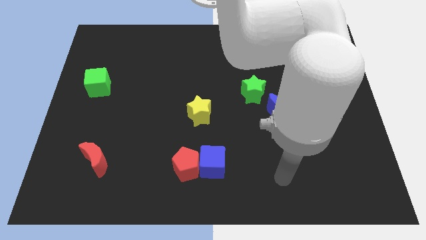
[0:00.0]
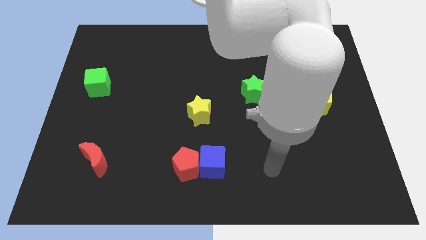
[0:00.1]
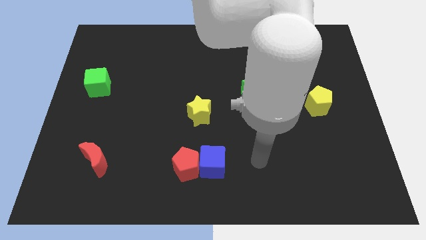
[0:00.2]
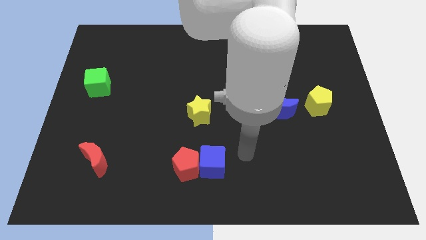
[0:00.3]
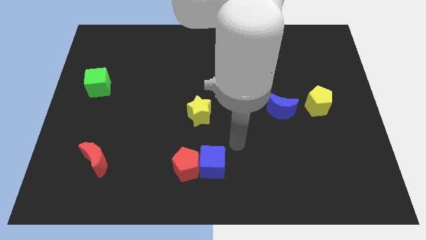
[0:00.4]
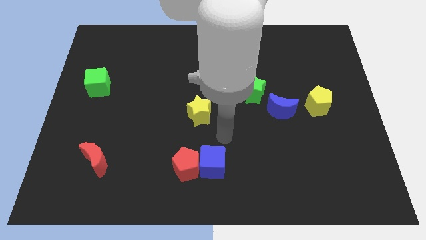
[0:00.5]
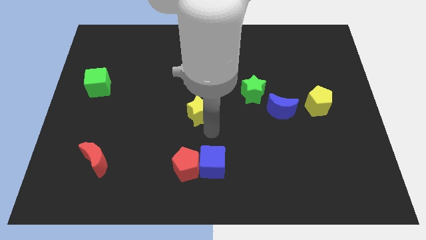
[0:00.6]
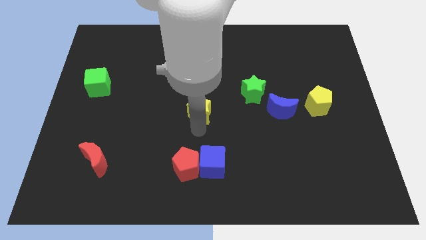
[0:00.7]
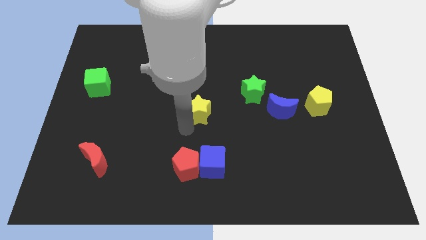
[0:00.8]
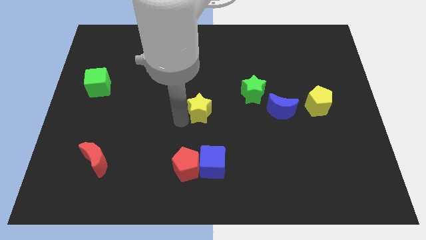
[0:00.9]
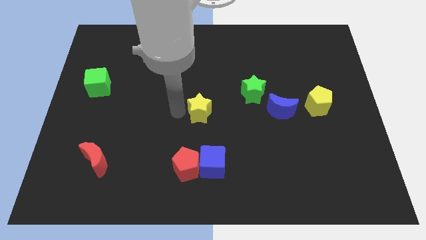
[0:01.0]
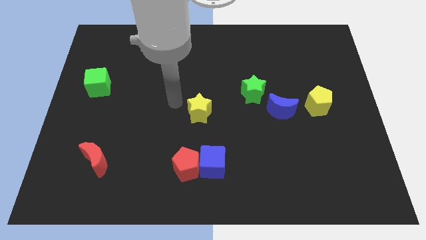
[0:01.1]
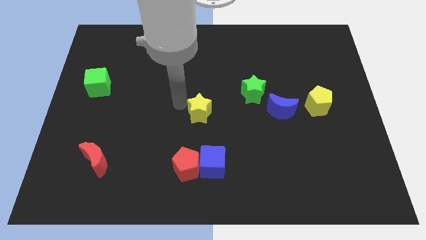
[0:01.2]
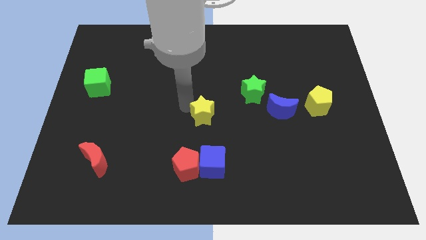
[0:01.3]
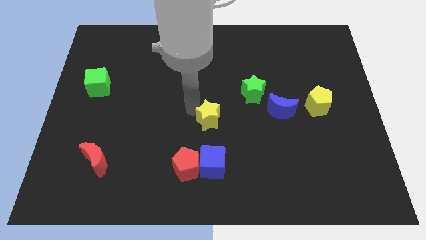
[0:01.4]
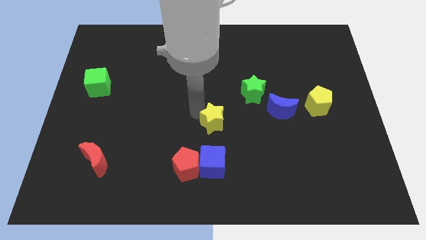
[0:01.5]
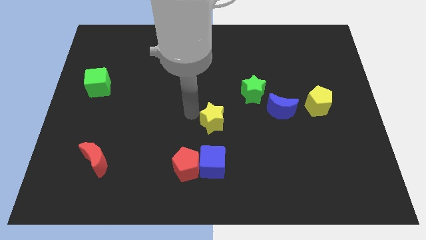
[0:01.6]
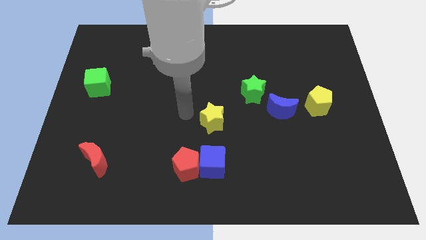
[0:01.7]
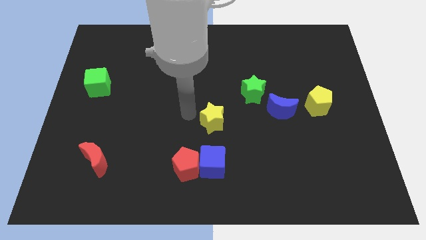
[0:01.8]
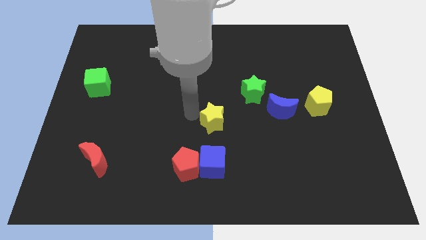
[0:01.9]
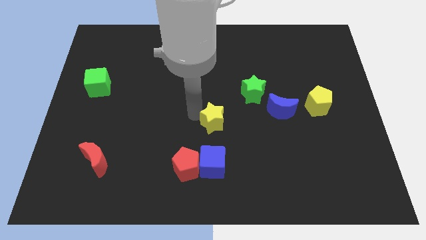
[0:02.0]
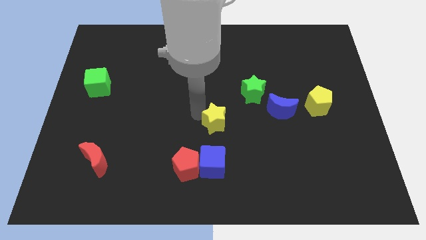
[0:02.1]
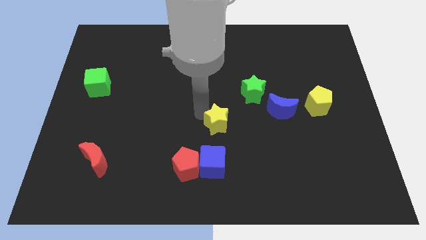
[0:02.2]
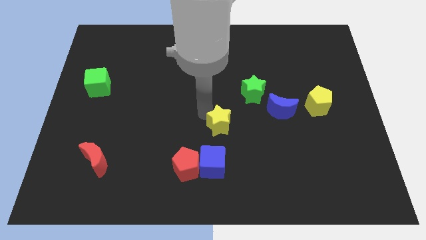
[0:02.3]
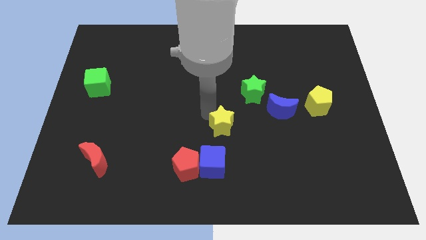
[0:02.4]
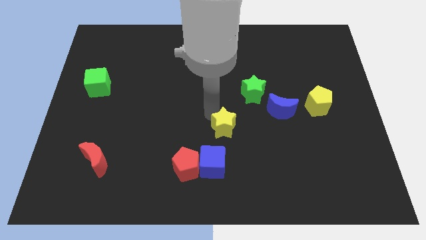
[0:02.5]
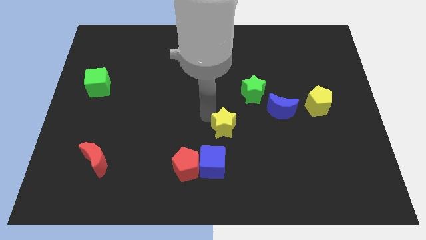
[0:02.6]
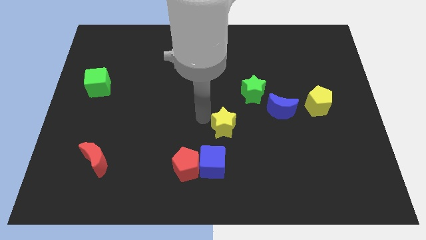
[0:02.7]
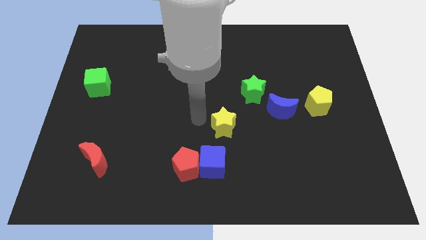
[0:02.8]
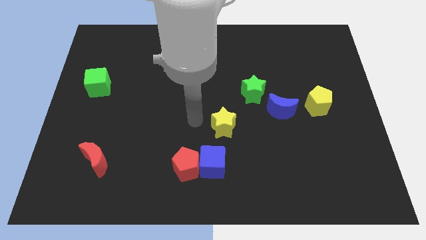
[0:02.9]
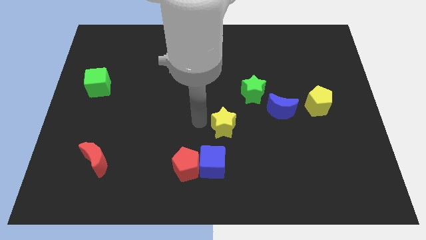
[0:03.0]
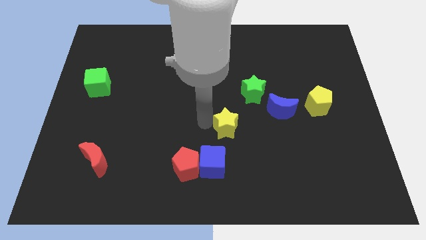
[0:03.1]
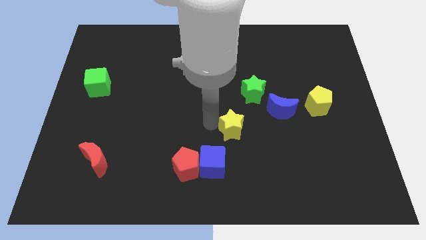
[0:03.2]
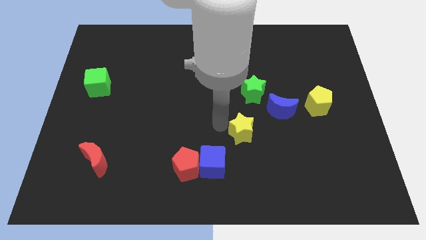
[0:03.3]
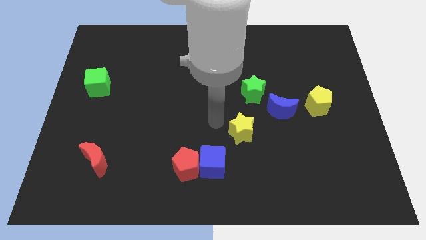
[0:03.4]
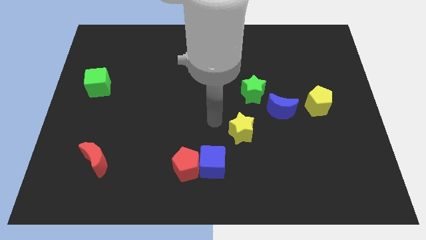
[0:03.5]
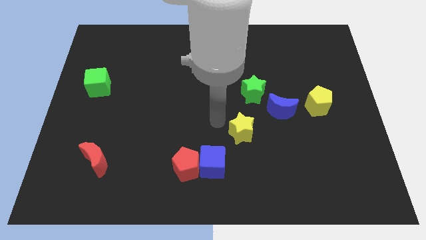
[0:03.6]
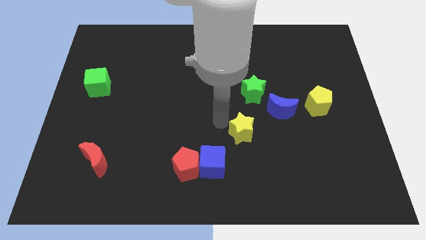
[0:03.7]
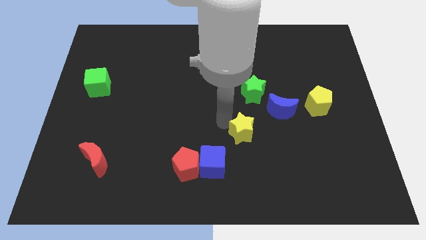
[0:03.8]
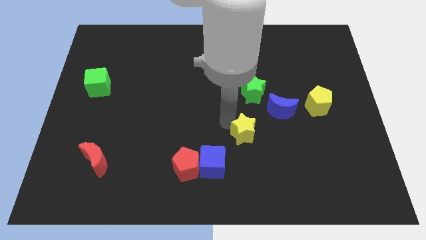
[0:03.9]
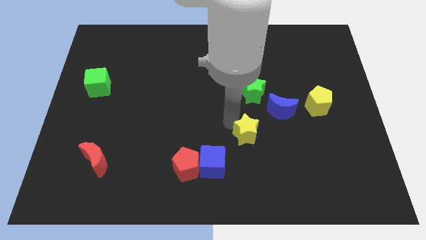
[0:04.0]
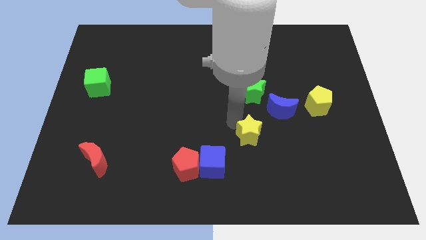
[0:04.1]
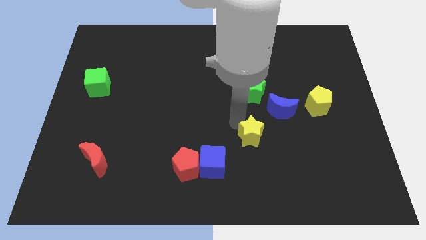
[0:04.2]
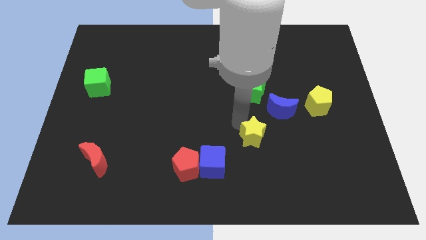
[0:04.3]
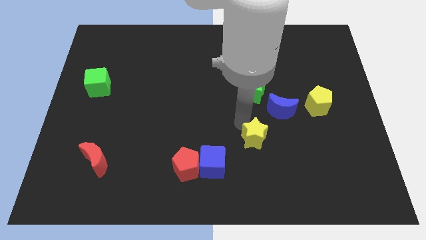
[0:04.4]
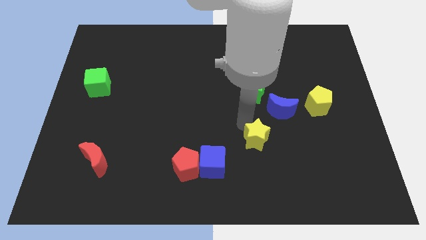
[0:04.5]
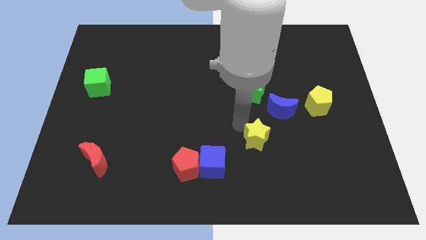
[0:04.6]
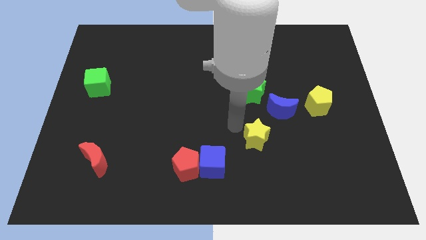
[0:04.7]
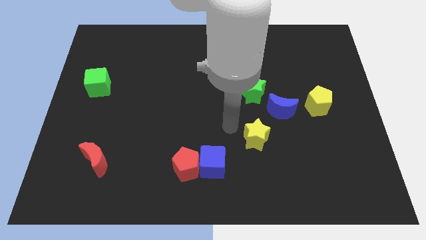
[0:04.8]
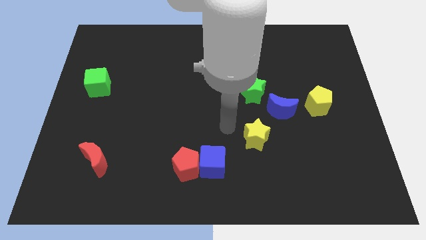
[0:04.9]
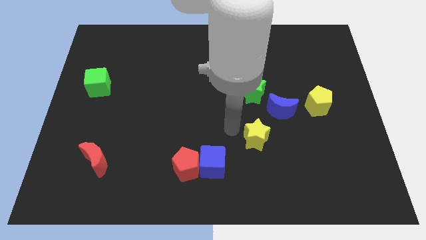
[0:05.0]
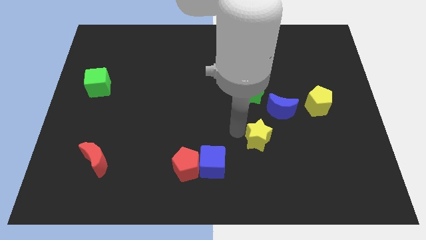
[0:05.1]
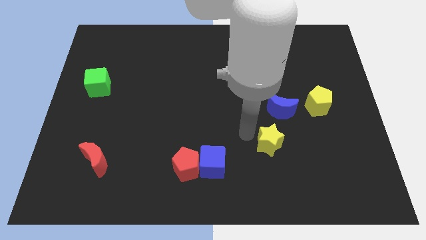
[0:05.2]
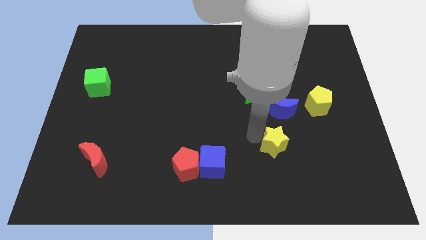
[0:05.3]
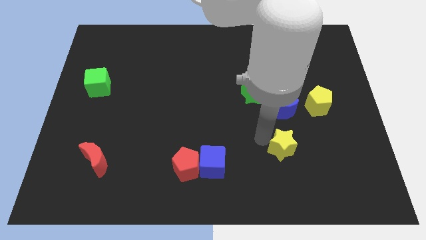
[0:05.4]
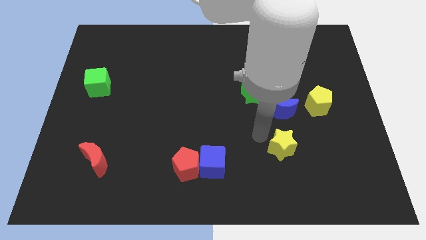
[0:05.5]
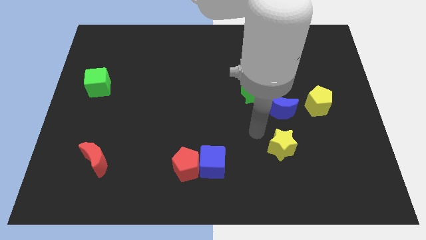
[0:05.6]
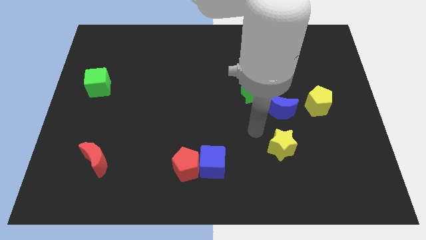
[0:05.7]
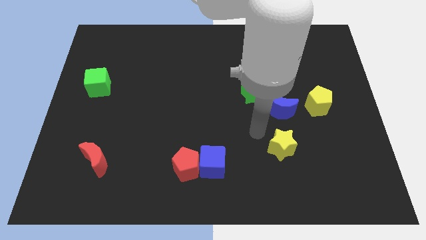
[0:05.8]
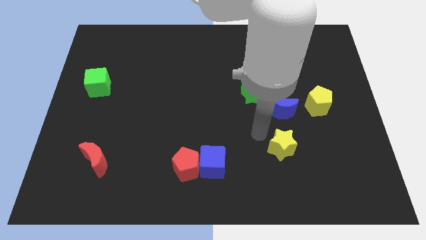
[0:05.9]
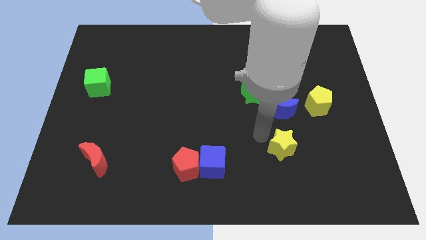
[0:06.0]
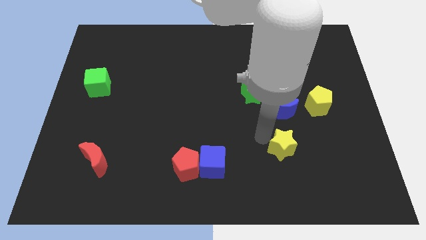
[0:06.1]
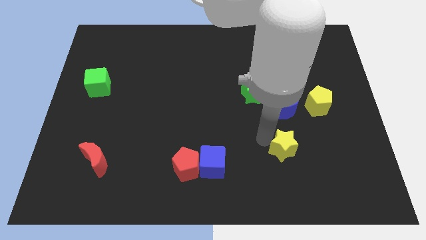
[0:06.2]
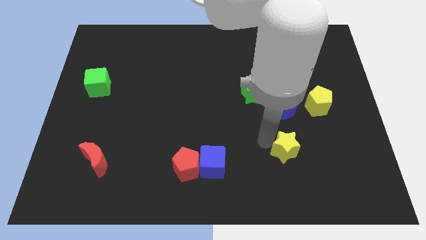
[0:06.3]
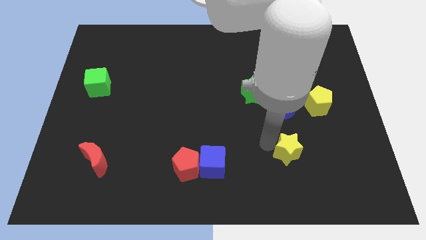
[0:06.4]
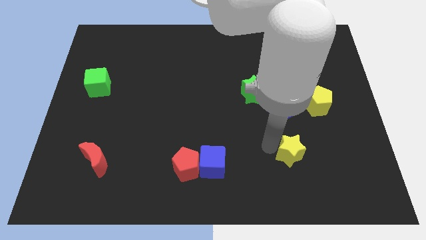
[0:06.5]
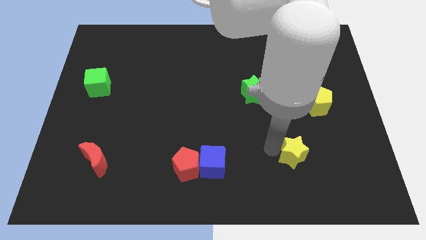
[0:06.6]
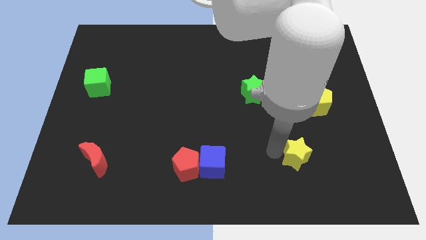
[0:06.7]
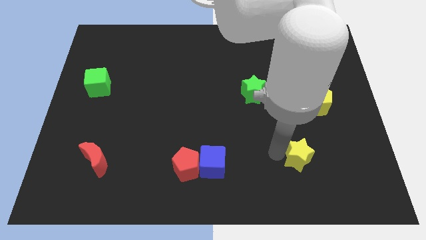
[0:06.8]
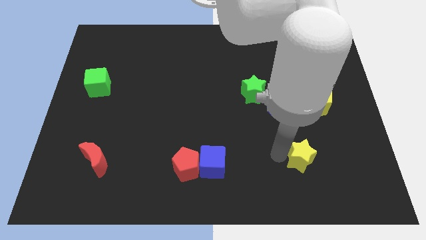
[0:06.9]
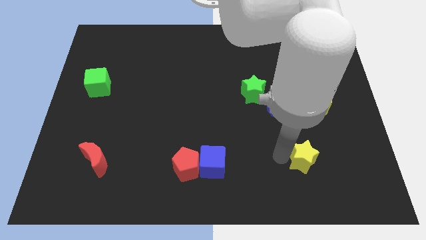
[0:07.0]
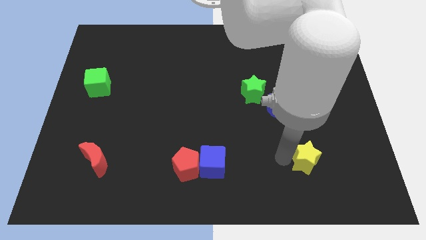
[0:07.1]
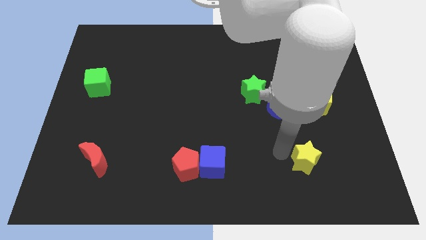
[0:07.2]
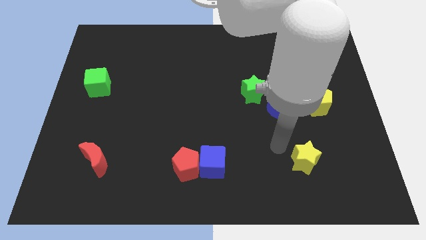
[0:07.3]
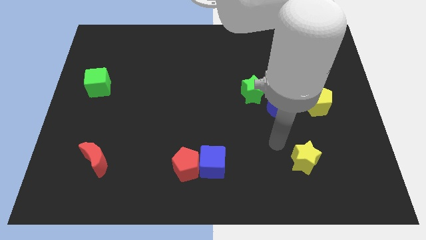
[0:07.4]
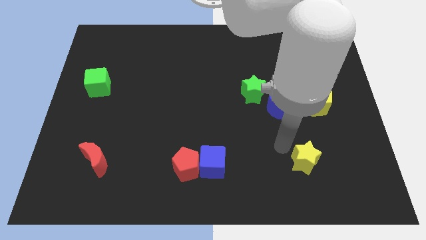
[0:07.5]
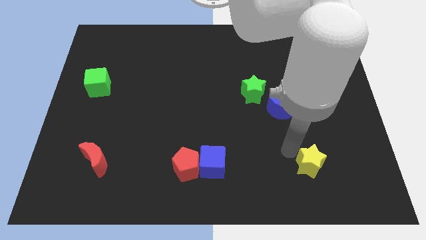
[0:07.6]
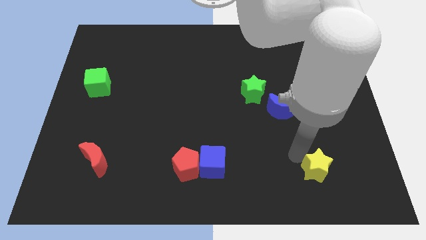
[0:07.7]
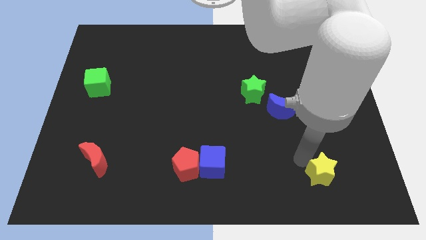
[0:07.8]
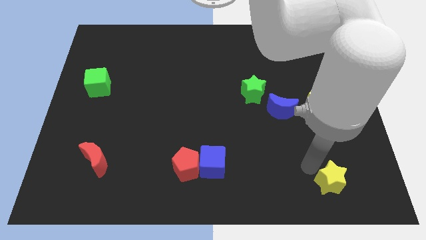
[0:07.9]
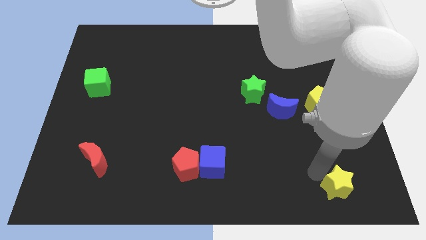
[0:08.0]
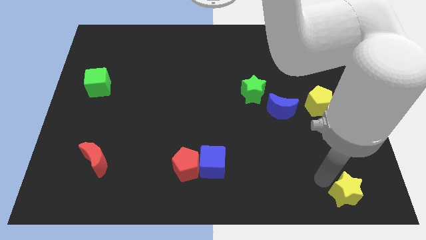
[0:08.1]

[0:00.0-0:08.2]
move the yellow star to the bottom right corner
